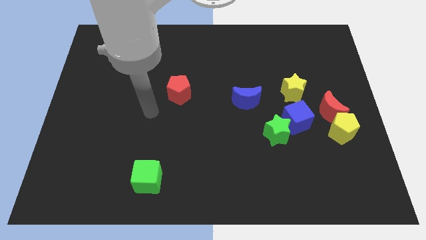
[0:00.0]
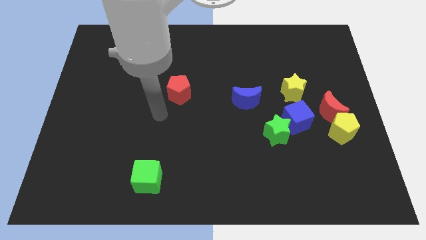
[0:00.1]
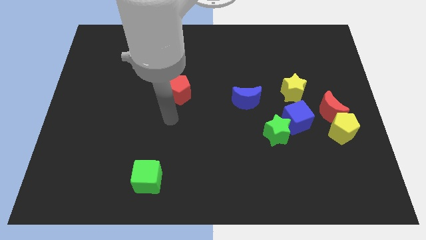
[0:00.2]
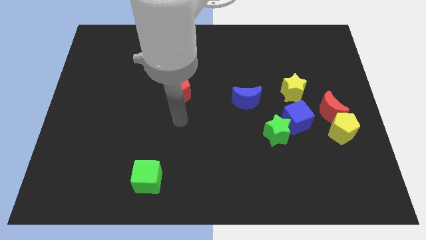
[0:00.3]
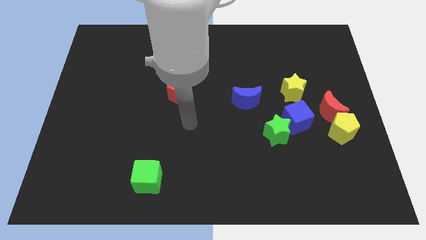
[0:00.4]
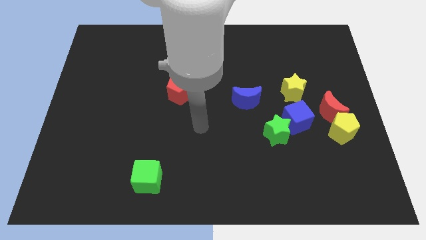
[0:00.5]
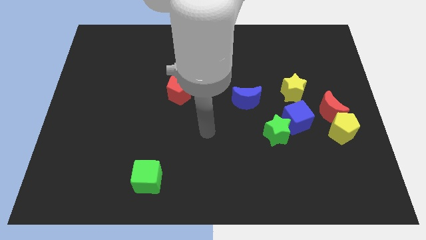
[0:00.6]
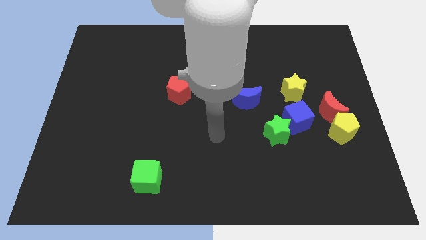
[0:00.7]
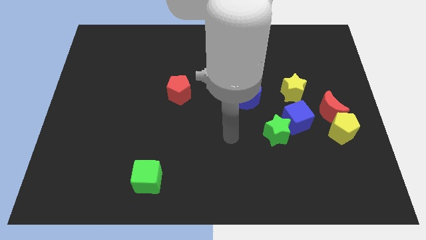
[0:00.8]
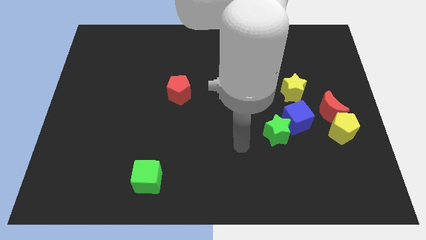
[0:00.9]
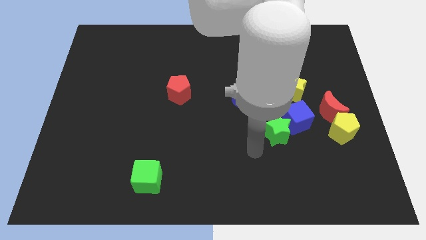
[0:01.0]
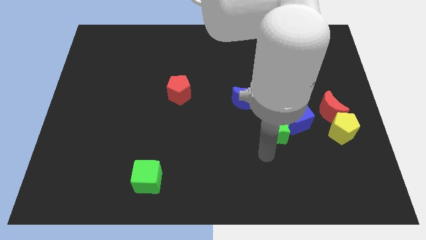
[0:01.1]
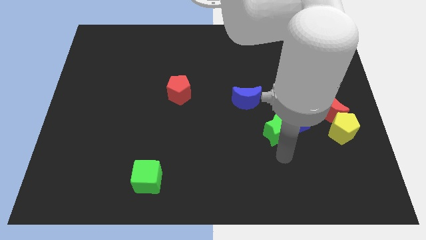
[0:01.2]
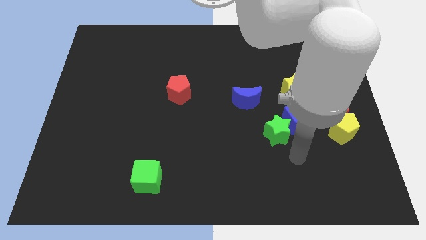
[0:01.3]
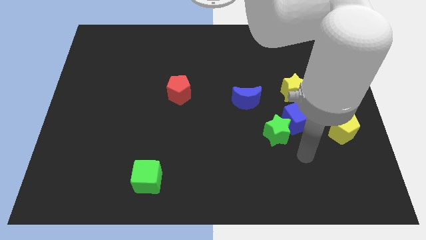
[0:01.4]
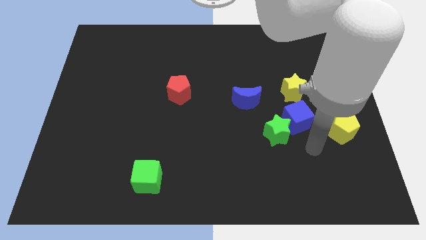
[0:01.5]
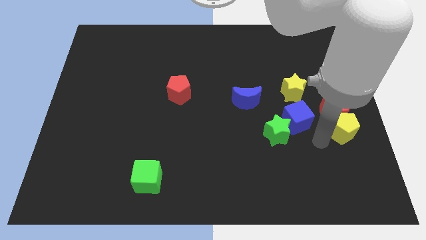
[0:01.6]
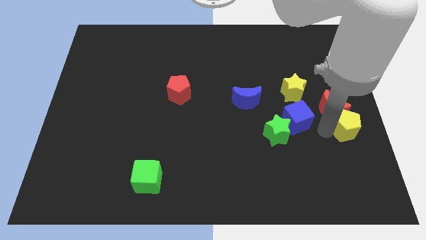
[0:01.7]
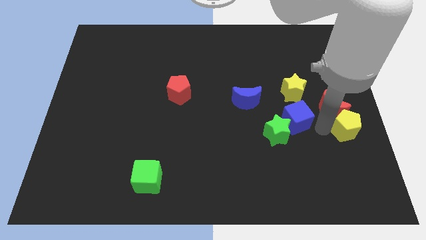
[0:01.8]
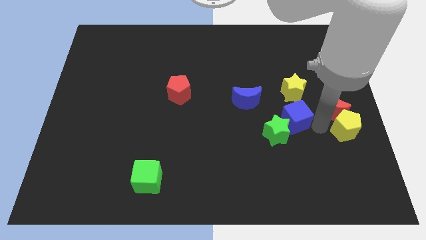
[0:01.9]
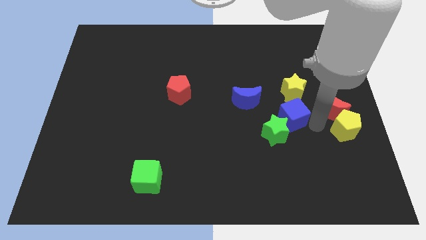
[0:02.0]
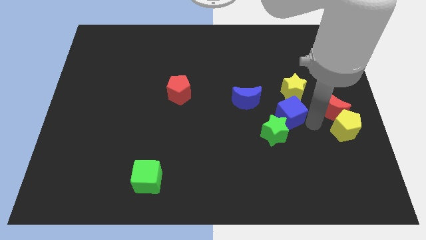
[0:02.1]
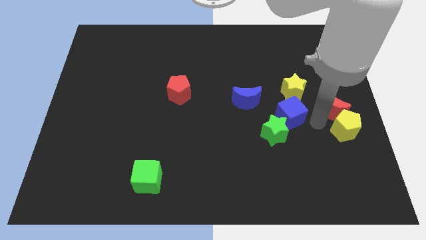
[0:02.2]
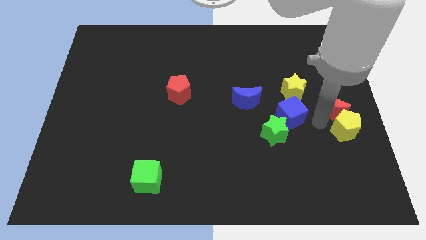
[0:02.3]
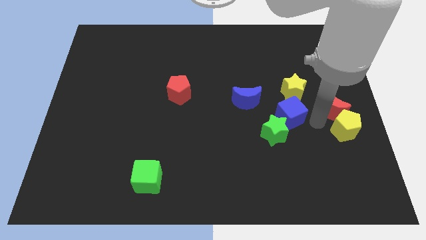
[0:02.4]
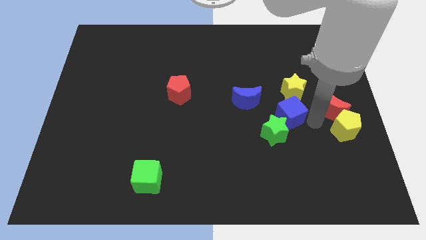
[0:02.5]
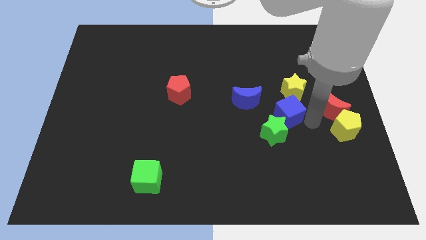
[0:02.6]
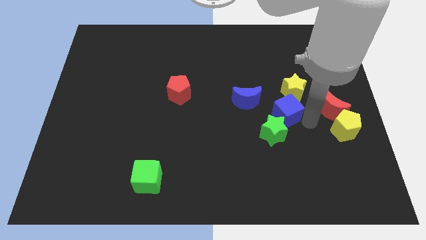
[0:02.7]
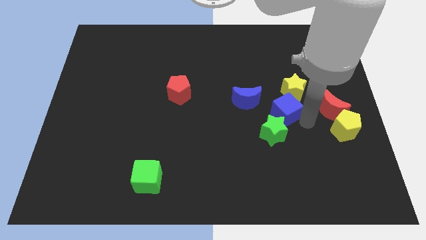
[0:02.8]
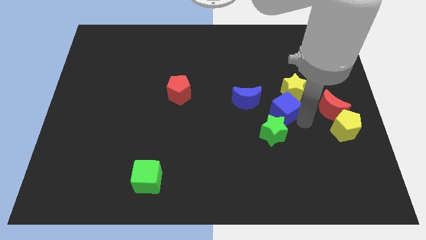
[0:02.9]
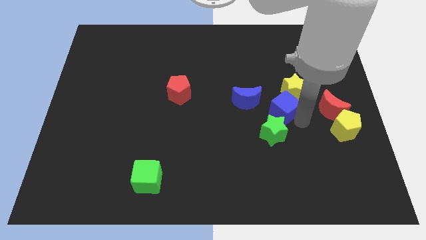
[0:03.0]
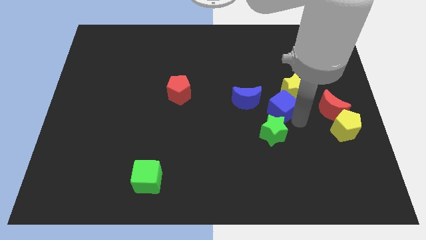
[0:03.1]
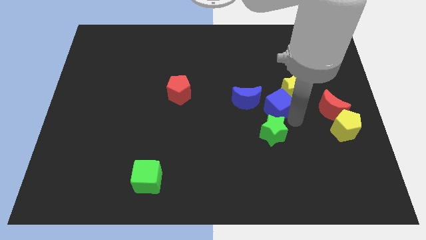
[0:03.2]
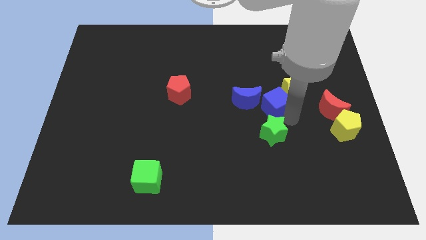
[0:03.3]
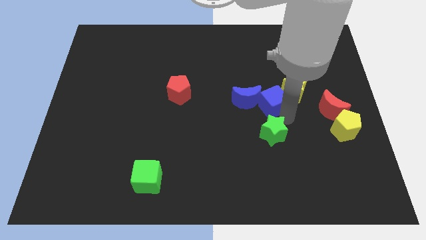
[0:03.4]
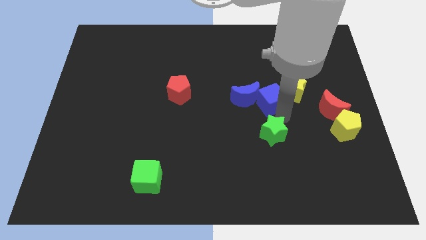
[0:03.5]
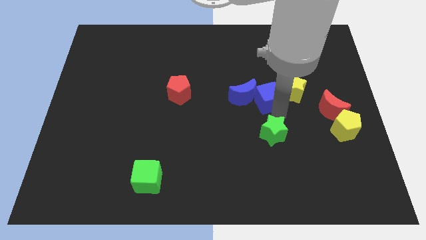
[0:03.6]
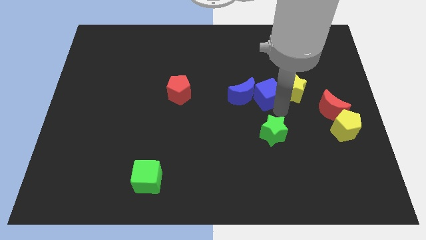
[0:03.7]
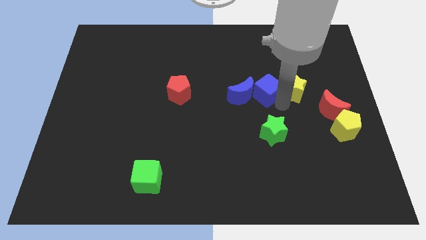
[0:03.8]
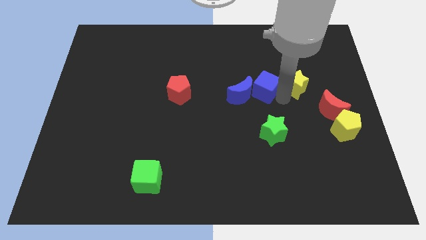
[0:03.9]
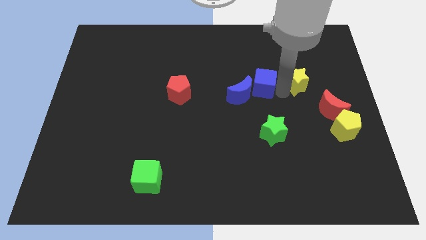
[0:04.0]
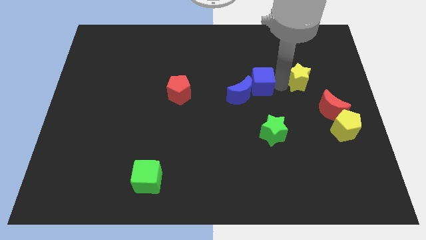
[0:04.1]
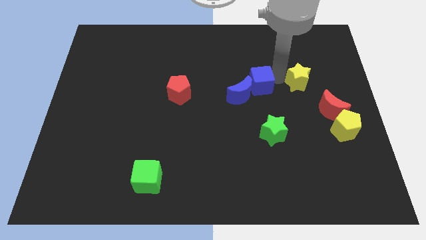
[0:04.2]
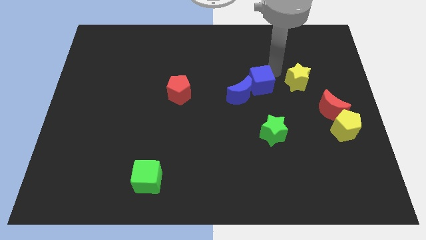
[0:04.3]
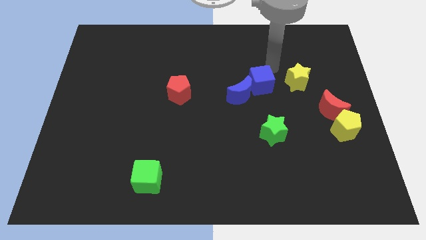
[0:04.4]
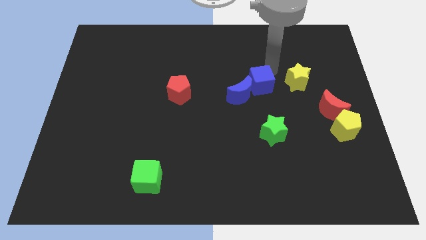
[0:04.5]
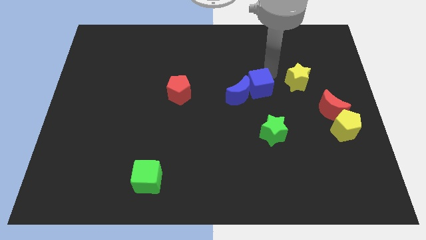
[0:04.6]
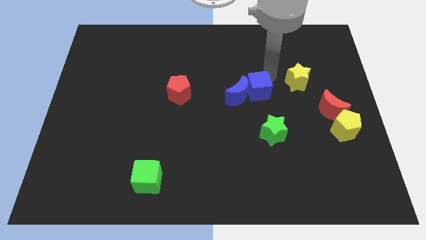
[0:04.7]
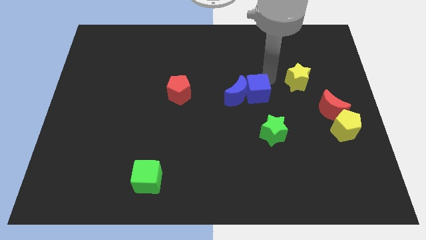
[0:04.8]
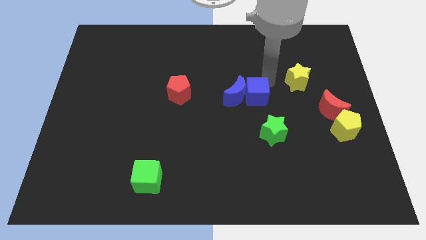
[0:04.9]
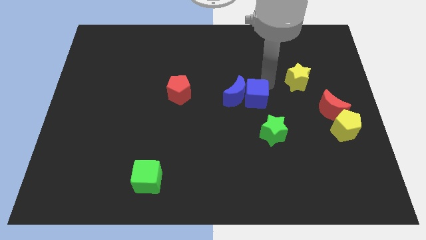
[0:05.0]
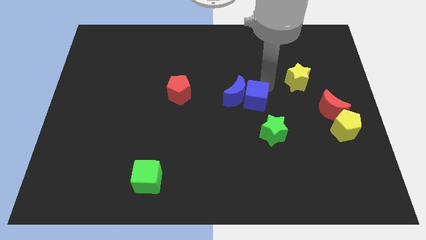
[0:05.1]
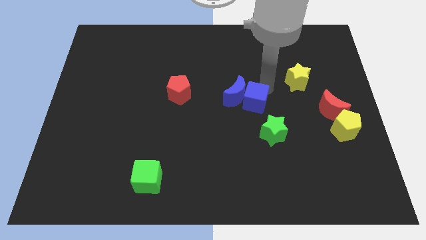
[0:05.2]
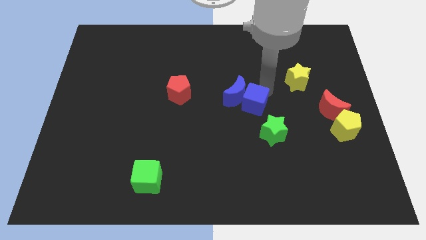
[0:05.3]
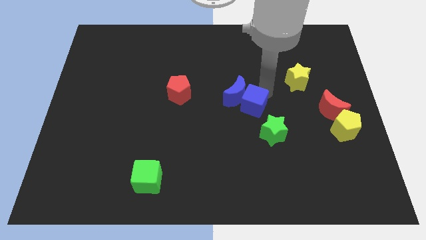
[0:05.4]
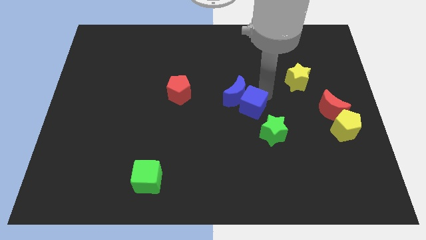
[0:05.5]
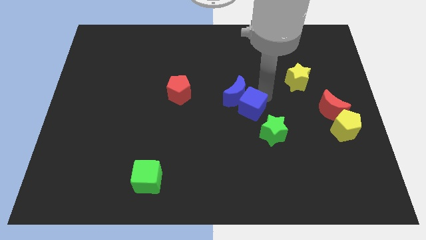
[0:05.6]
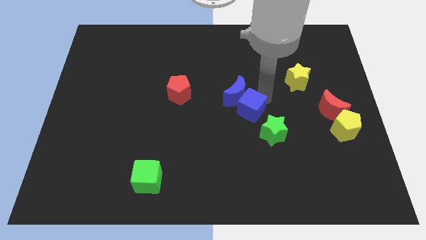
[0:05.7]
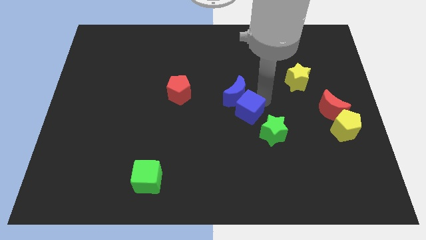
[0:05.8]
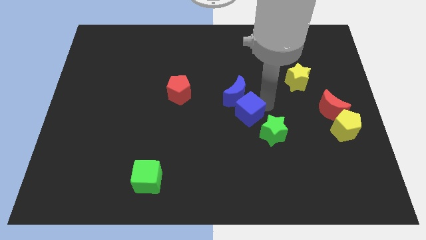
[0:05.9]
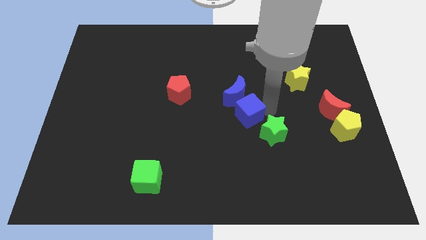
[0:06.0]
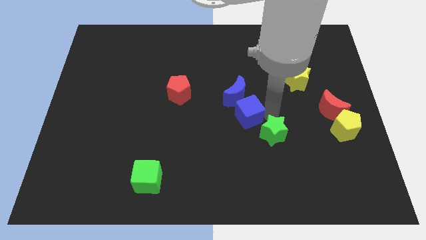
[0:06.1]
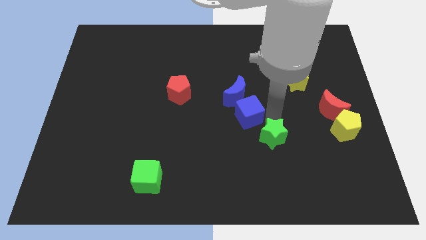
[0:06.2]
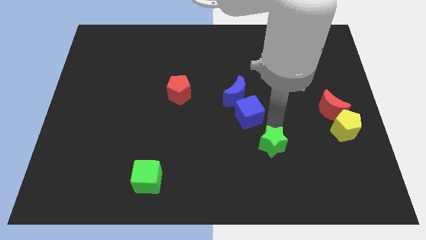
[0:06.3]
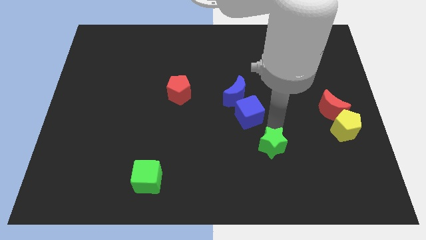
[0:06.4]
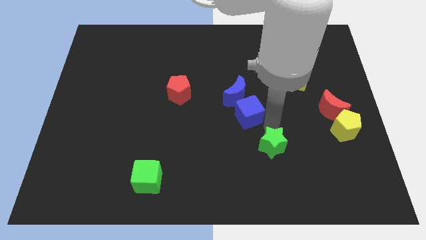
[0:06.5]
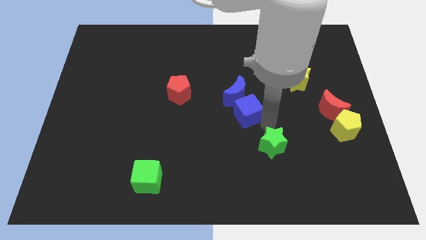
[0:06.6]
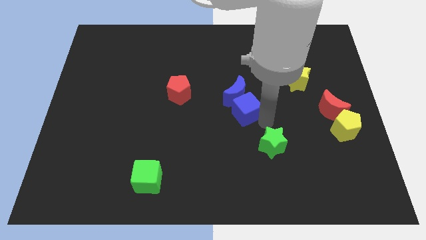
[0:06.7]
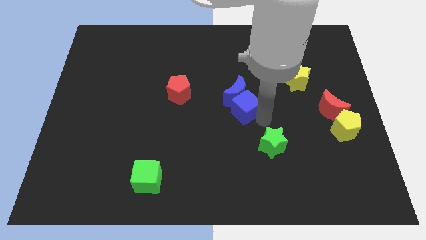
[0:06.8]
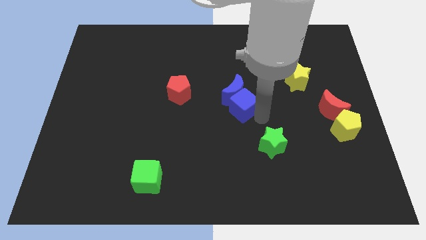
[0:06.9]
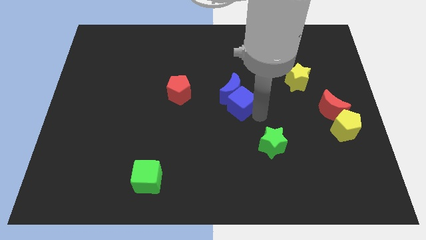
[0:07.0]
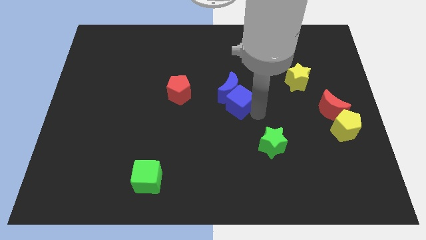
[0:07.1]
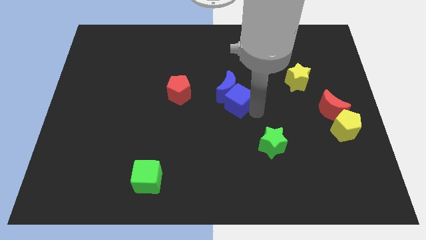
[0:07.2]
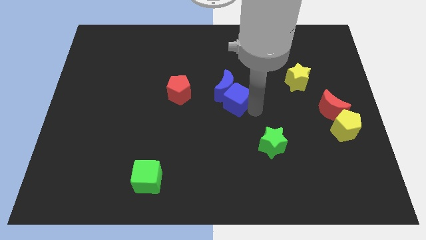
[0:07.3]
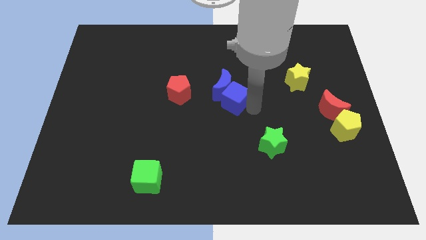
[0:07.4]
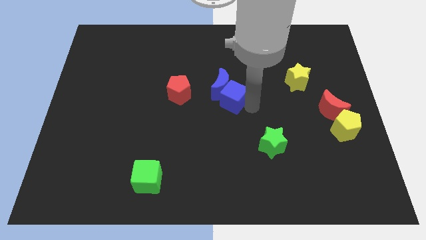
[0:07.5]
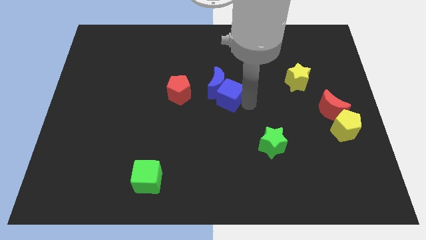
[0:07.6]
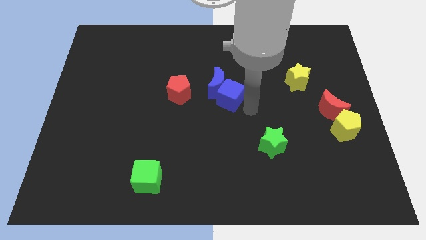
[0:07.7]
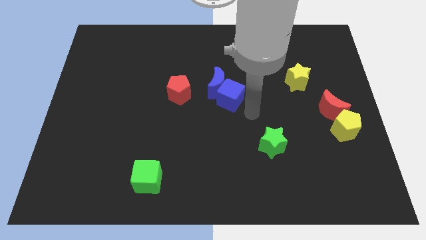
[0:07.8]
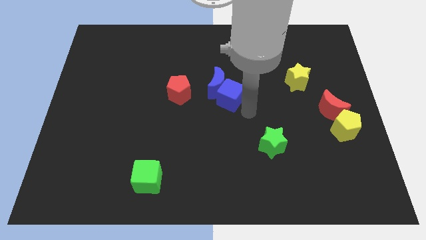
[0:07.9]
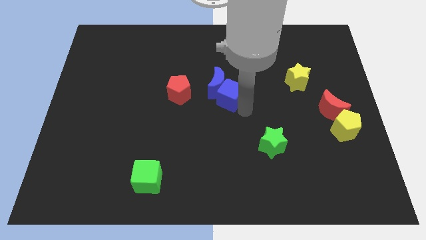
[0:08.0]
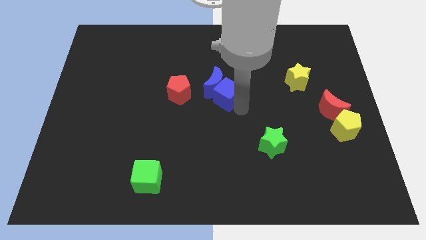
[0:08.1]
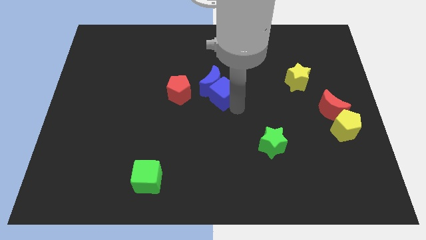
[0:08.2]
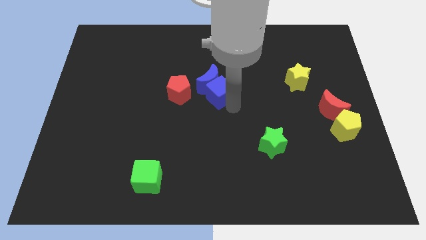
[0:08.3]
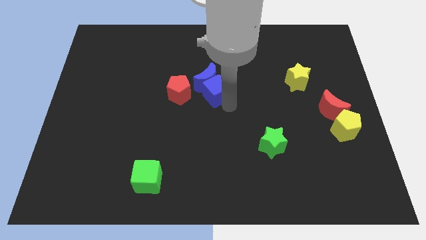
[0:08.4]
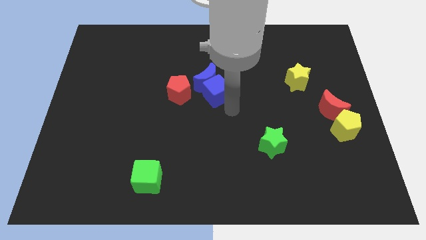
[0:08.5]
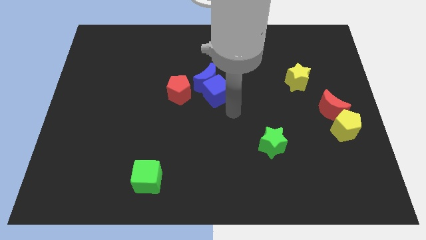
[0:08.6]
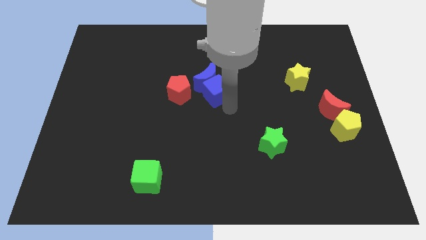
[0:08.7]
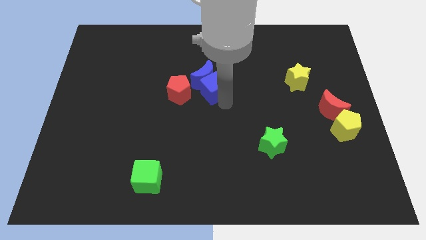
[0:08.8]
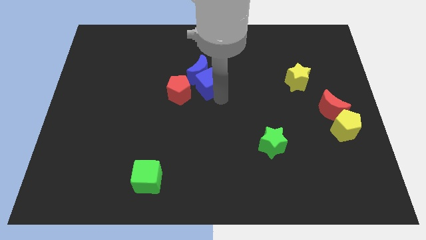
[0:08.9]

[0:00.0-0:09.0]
slide the blue cube to the top right of the red pentagon
